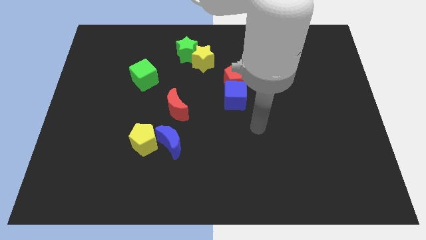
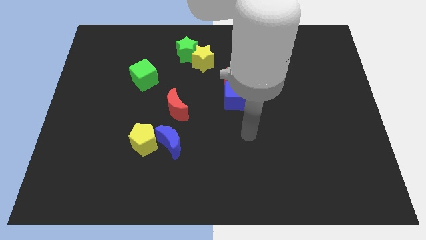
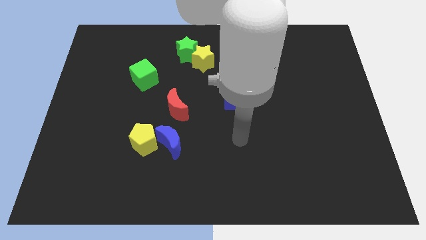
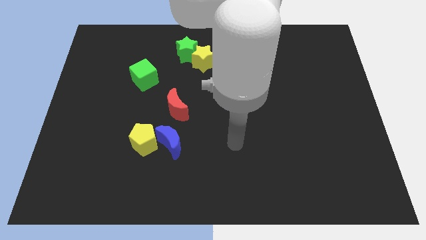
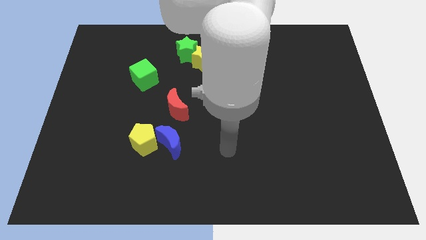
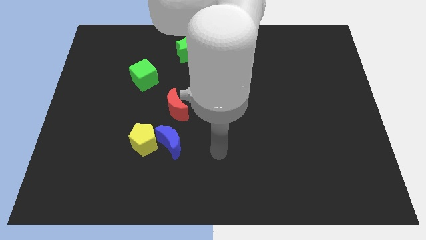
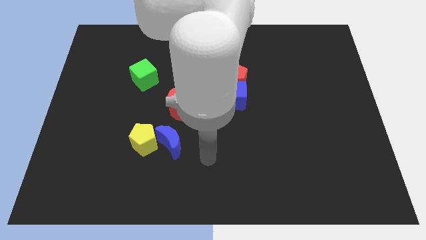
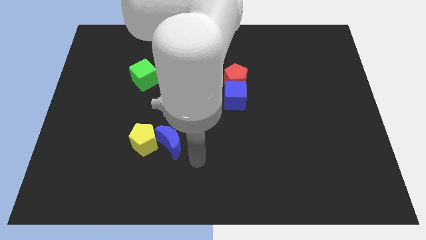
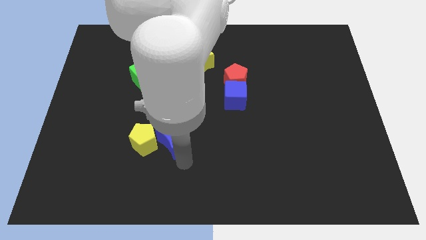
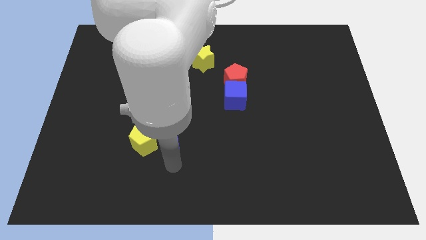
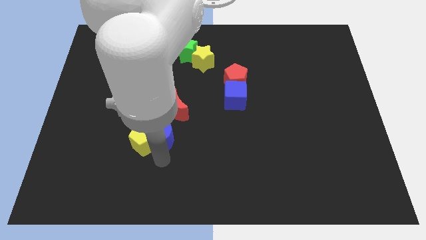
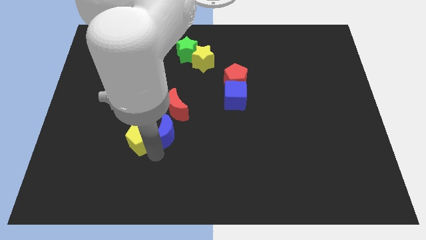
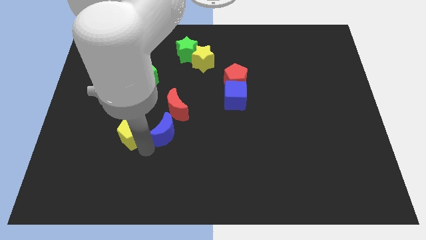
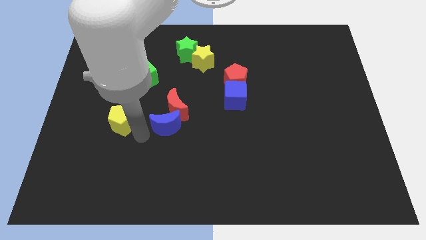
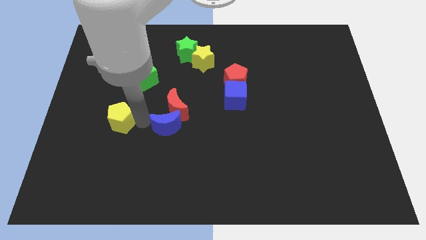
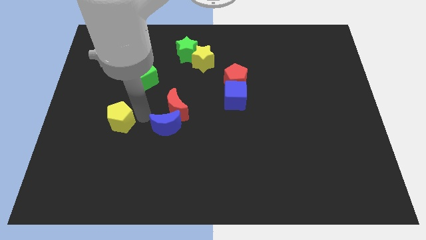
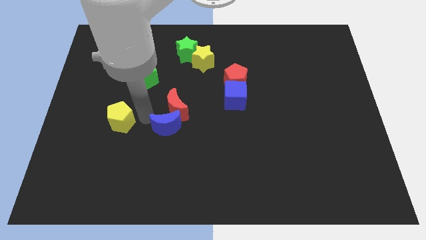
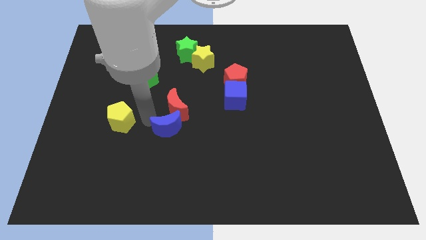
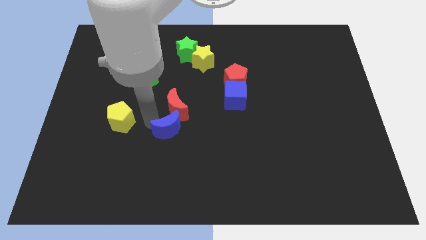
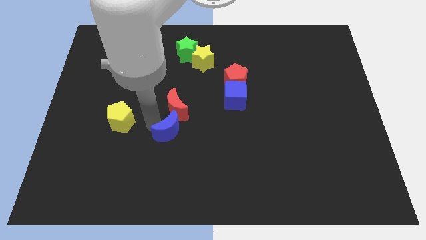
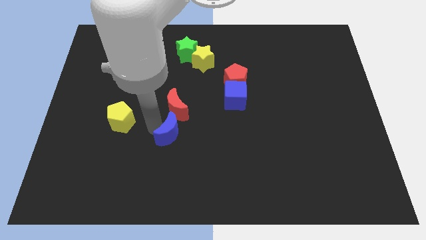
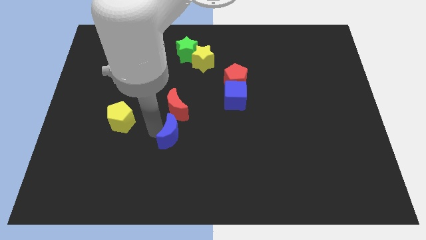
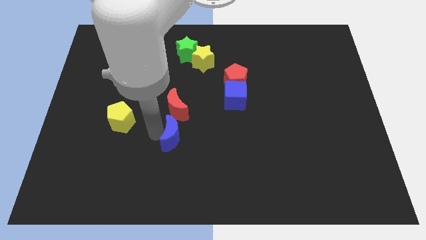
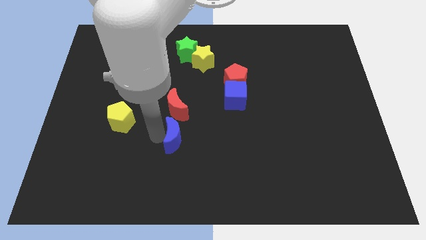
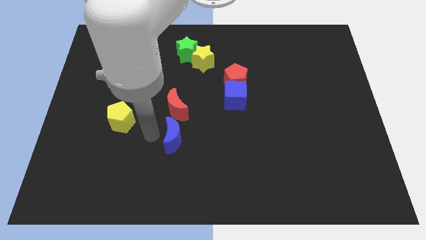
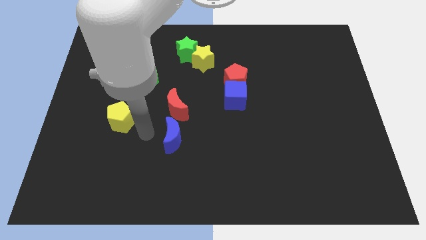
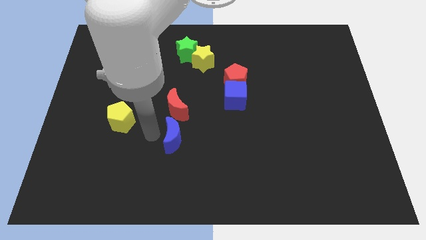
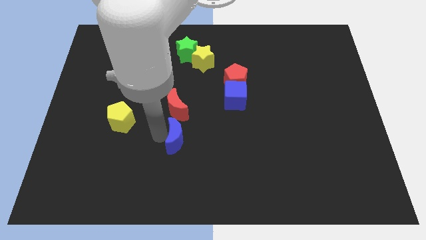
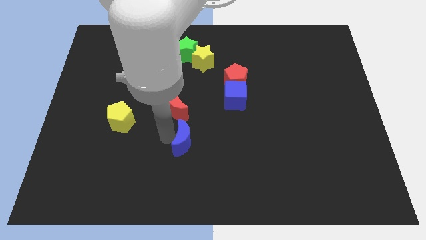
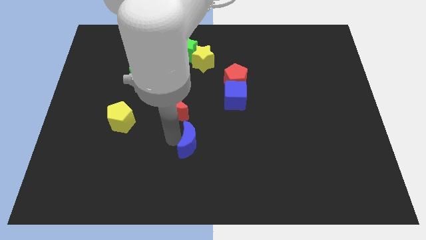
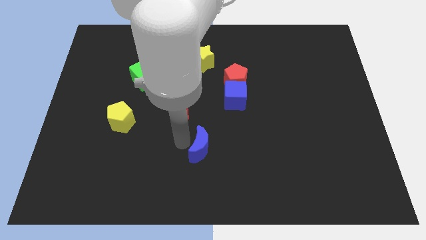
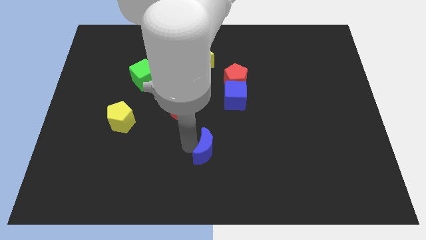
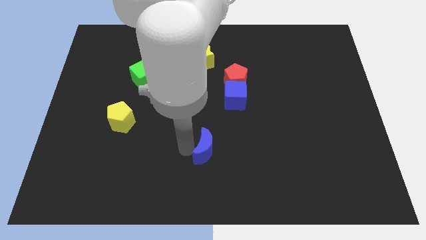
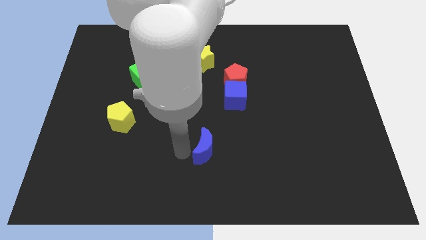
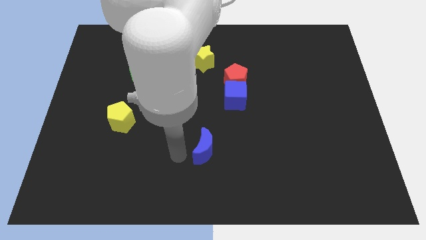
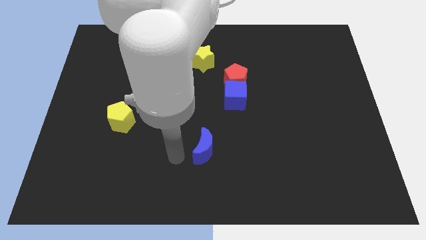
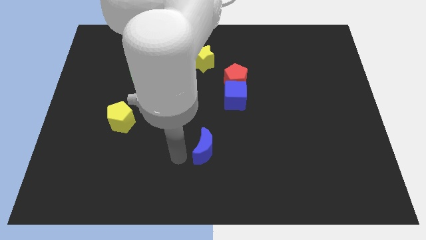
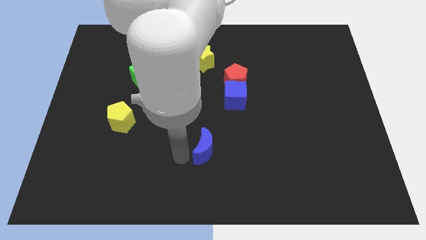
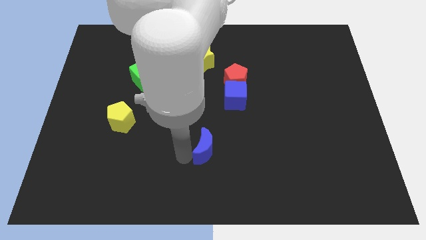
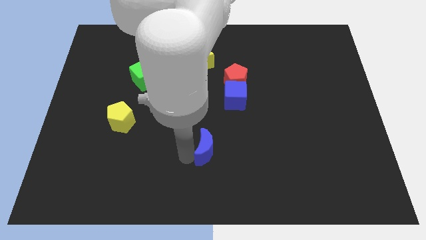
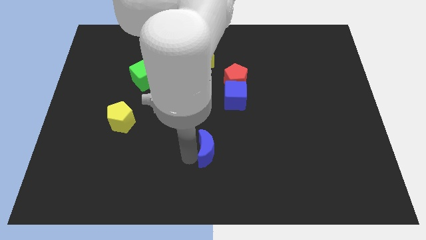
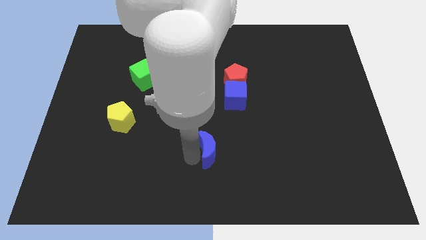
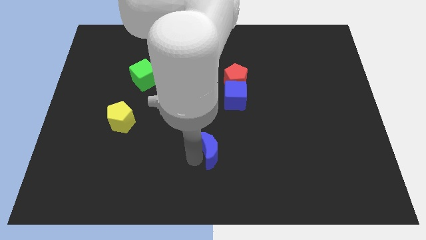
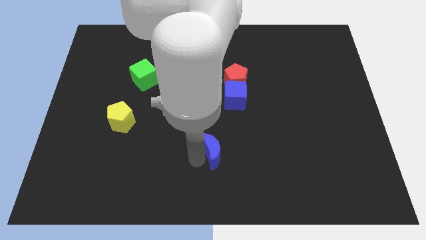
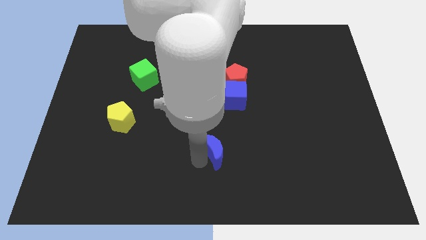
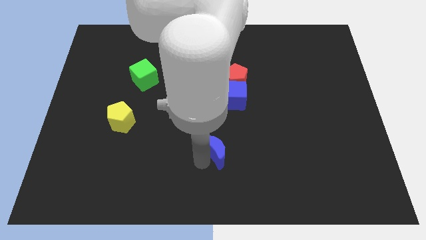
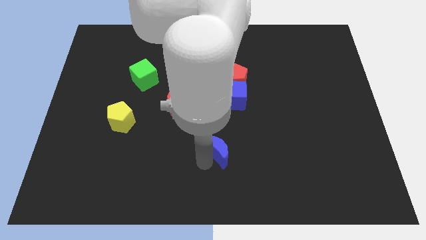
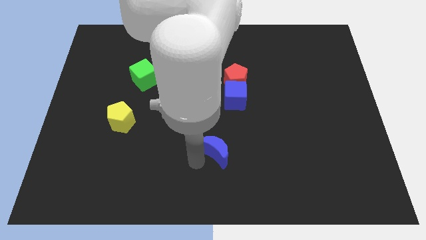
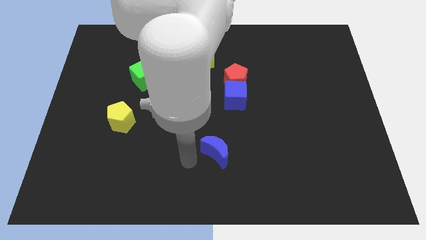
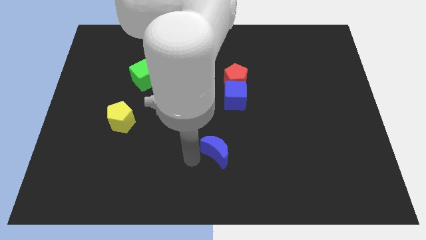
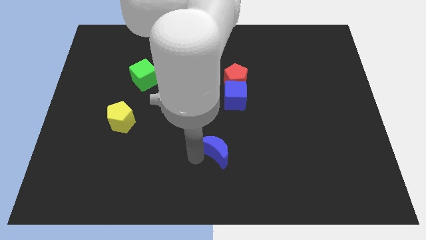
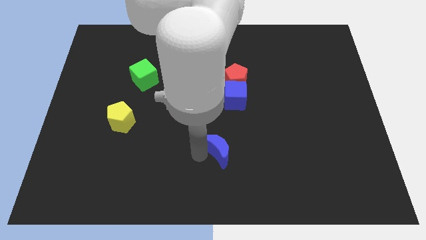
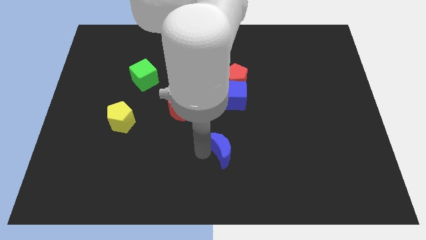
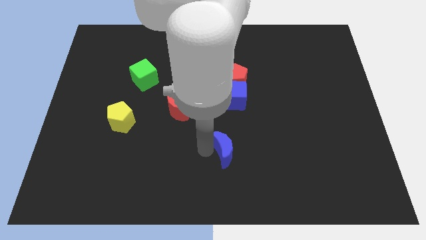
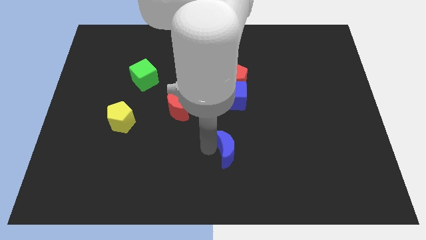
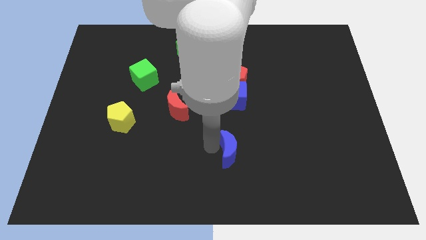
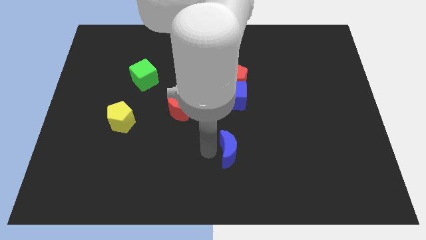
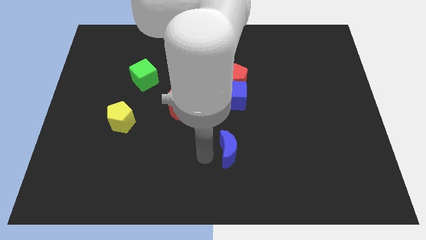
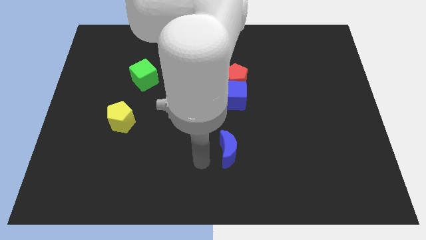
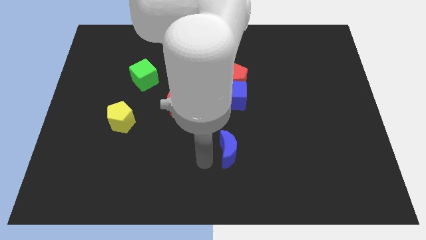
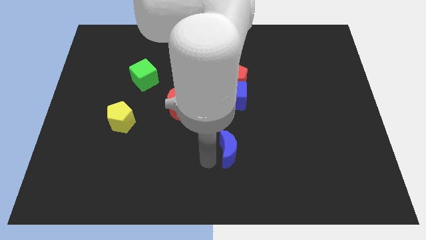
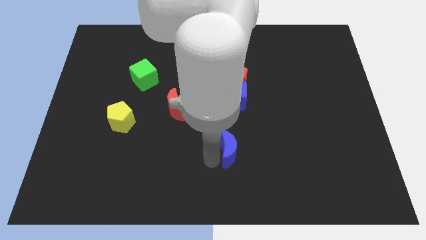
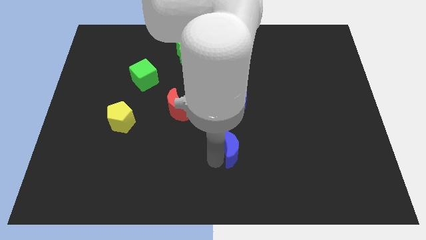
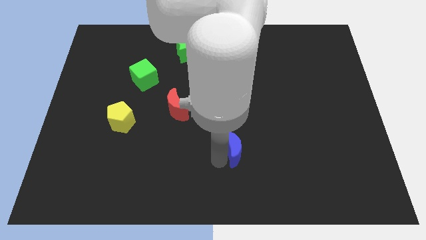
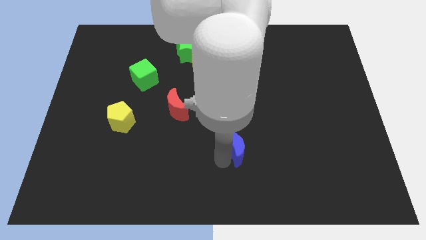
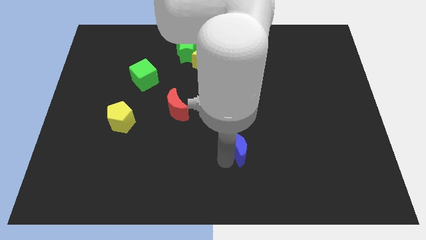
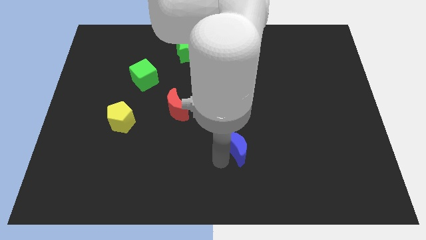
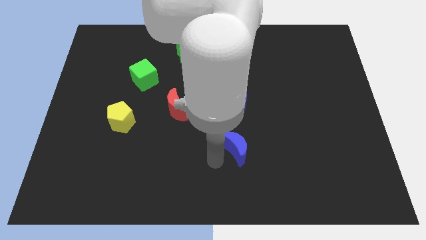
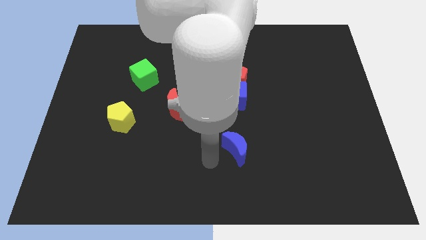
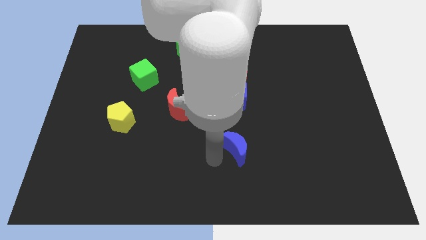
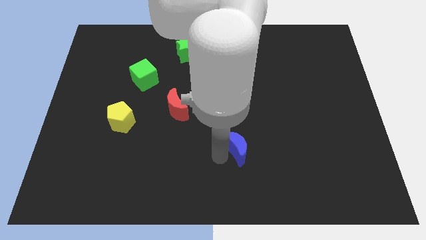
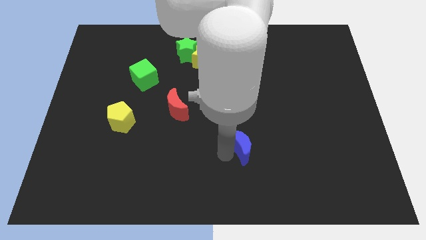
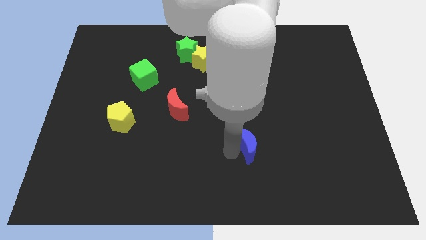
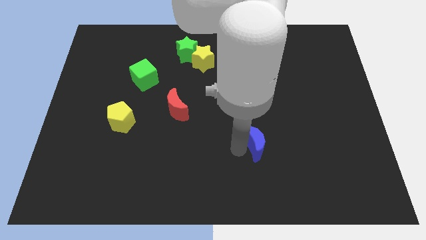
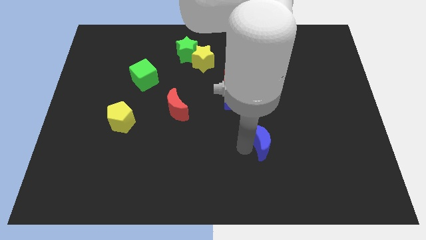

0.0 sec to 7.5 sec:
move the blue moon right

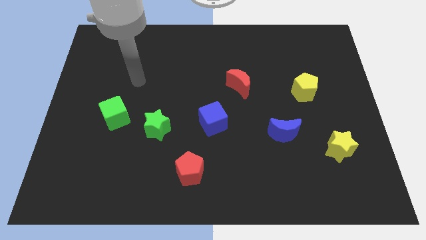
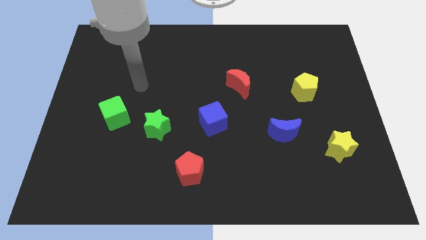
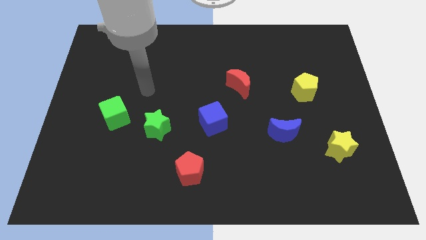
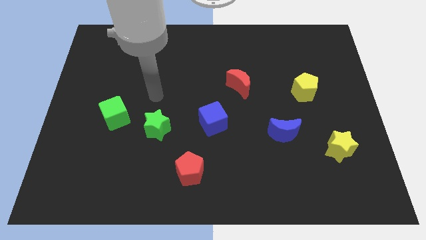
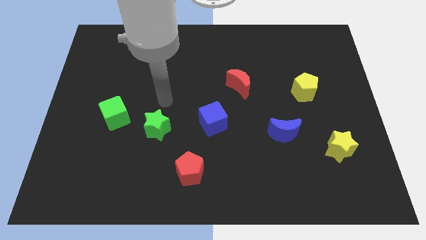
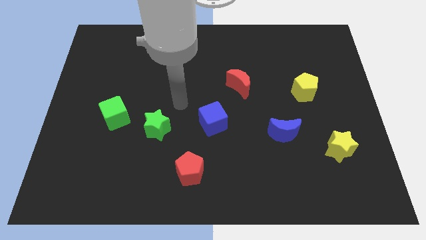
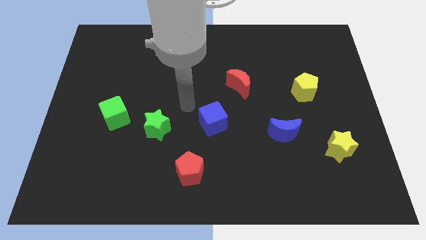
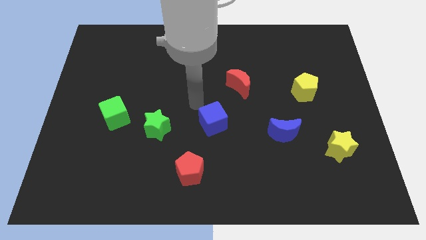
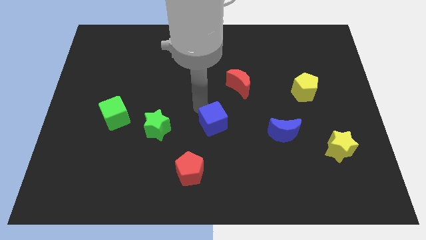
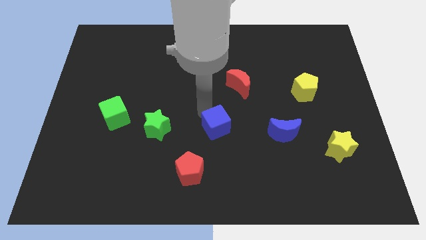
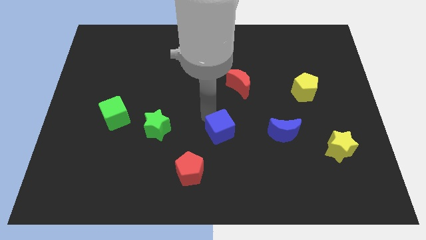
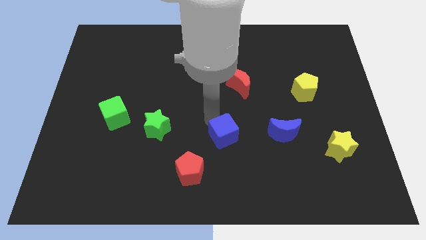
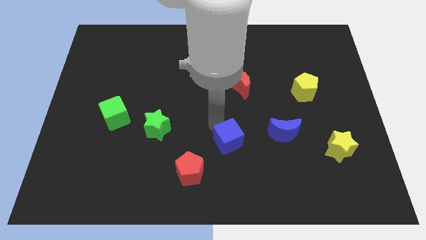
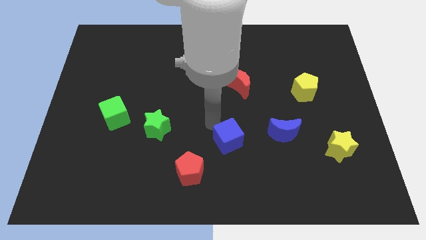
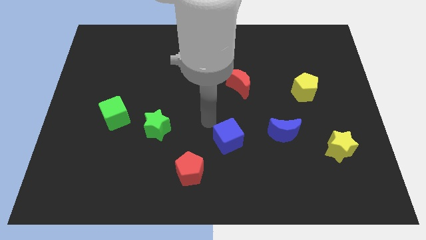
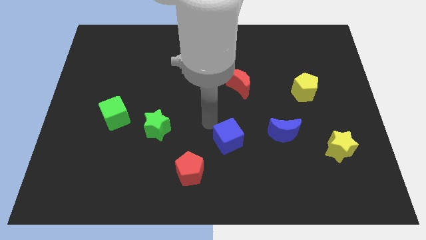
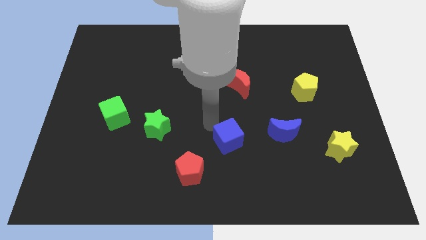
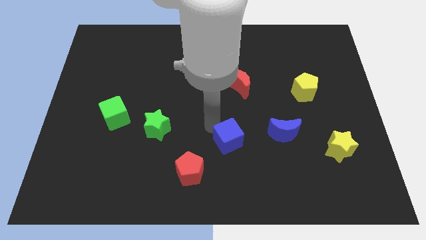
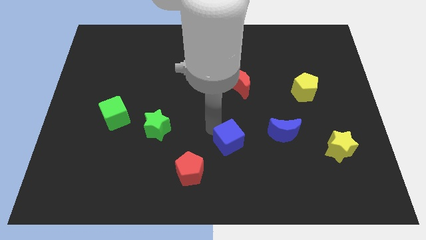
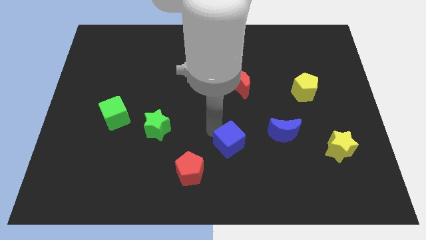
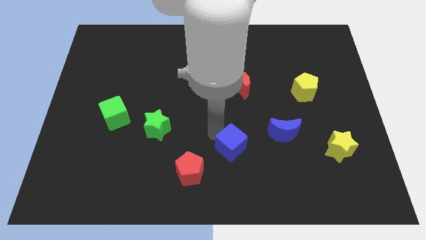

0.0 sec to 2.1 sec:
slightly slide the blue cube diagonally downwards and to the right
